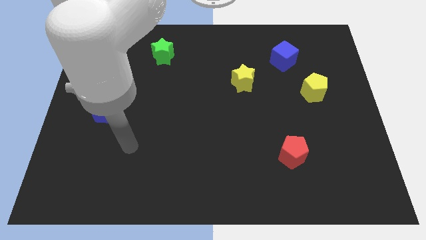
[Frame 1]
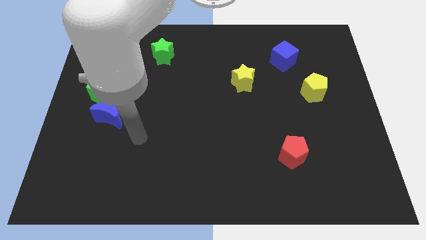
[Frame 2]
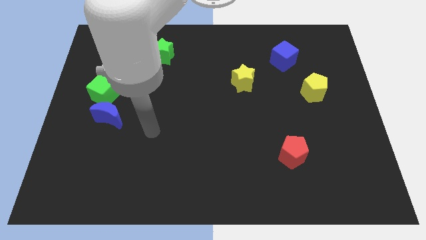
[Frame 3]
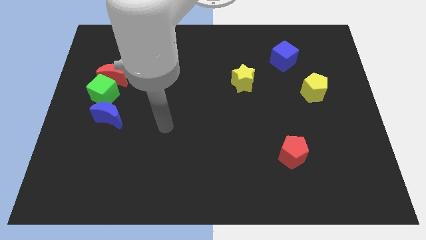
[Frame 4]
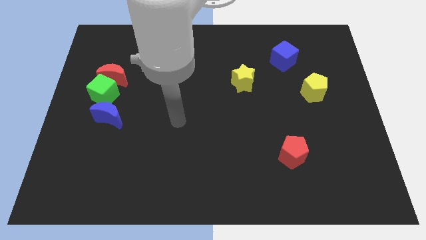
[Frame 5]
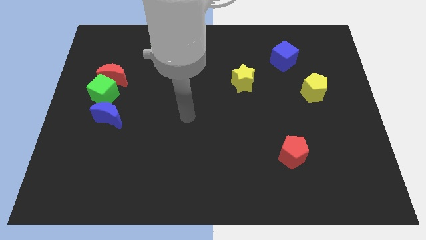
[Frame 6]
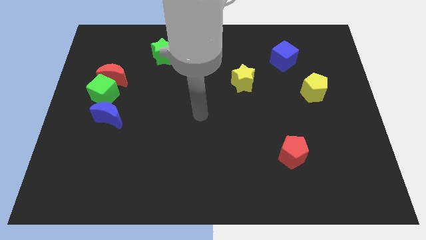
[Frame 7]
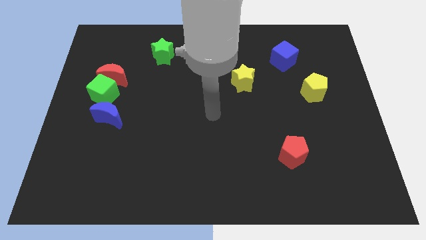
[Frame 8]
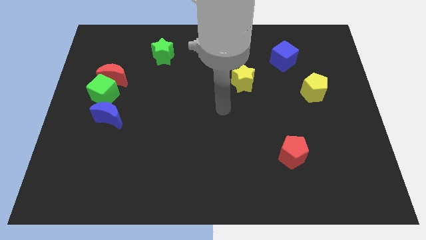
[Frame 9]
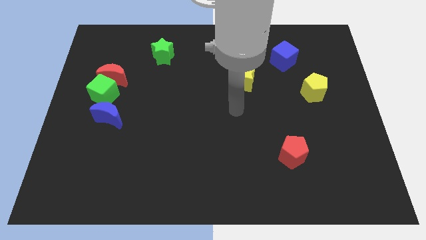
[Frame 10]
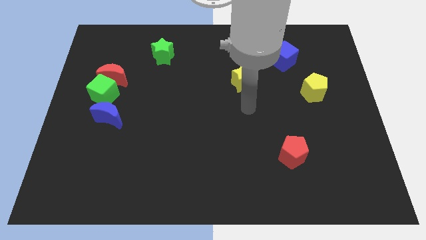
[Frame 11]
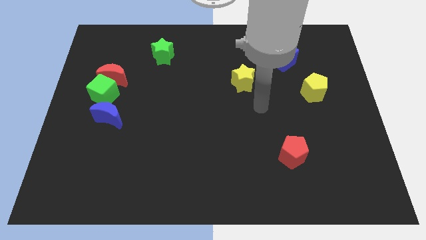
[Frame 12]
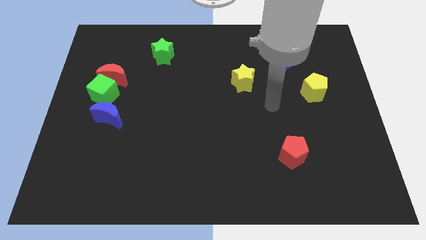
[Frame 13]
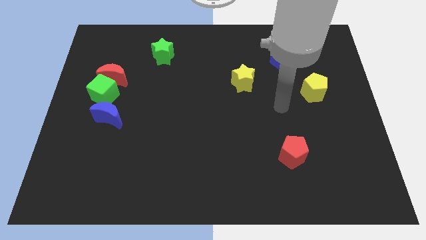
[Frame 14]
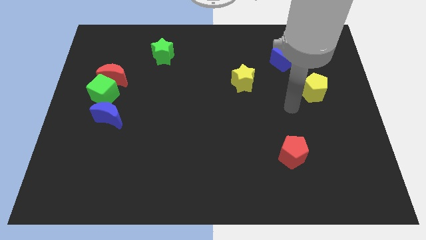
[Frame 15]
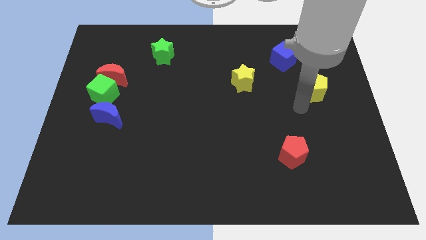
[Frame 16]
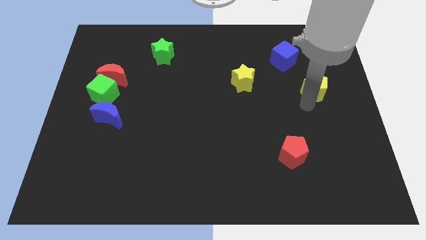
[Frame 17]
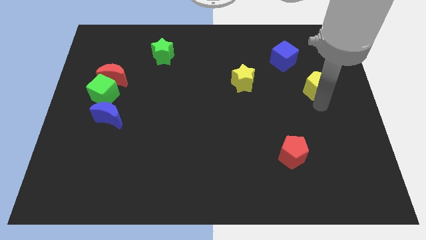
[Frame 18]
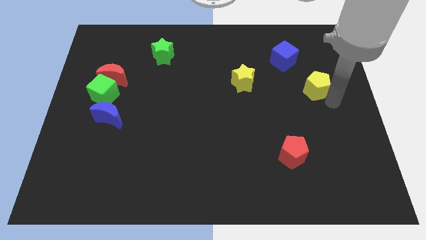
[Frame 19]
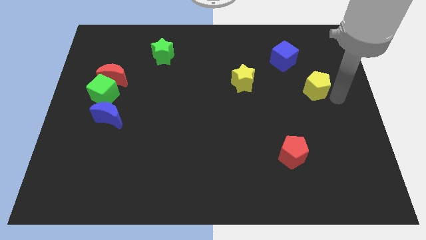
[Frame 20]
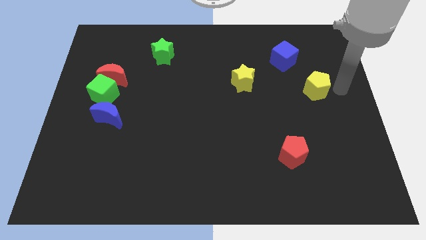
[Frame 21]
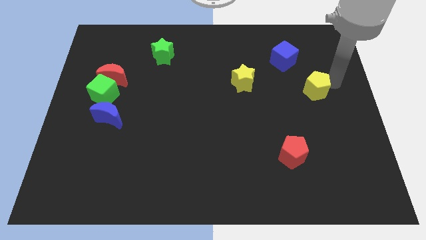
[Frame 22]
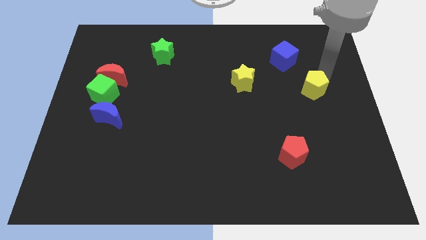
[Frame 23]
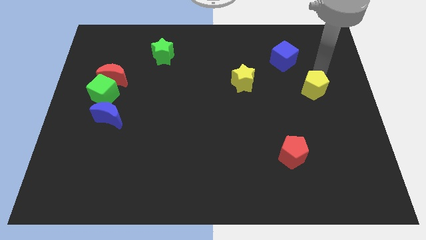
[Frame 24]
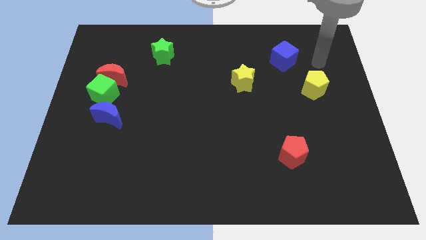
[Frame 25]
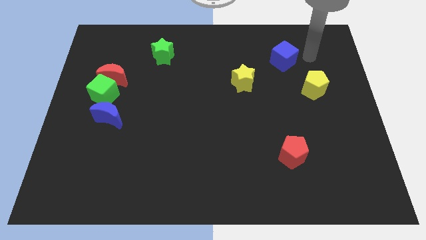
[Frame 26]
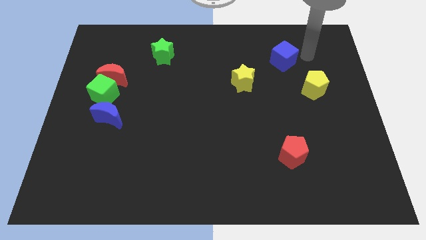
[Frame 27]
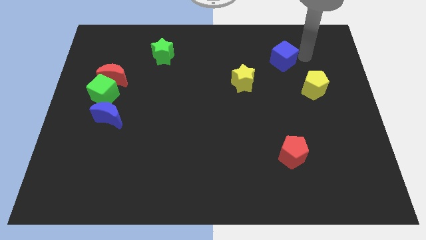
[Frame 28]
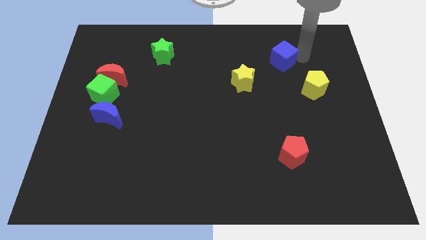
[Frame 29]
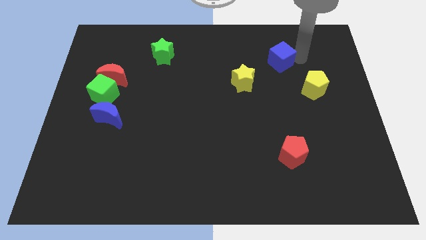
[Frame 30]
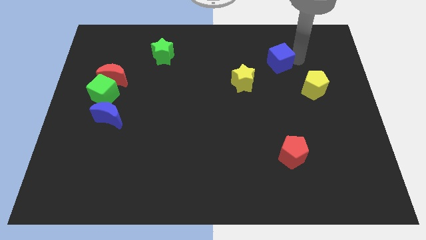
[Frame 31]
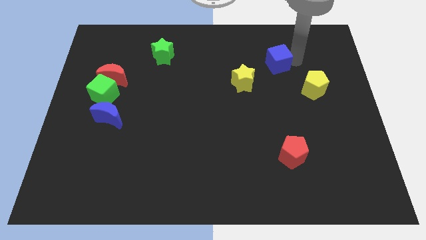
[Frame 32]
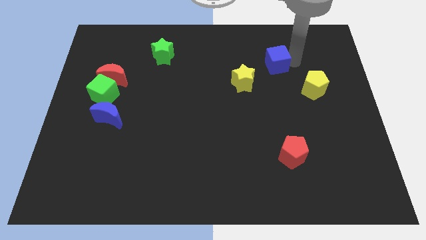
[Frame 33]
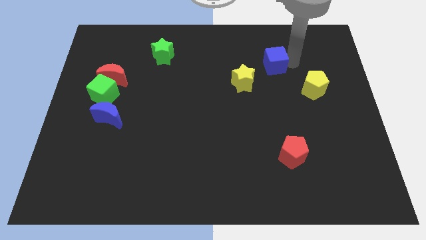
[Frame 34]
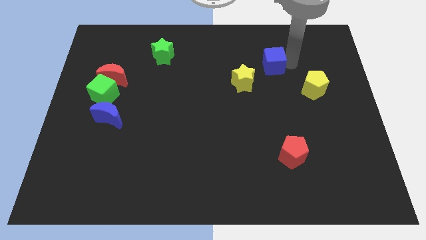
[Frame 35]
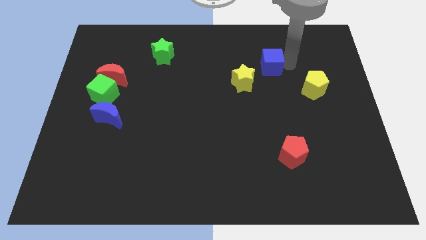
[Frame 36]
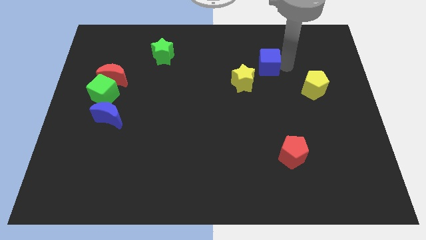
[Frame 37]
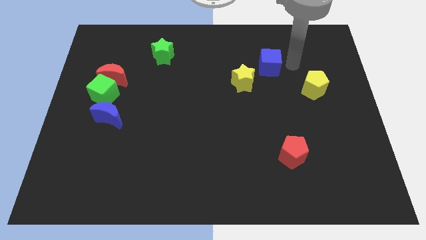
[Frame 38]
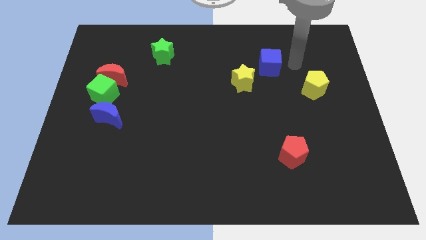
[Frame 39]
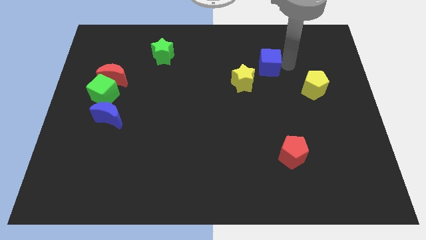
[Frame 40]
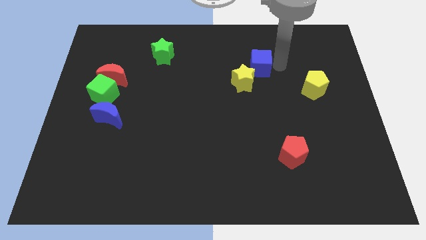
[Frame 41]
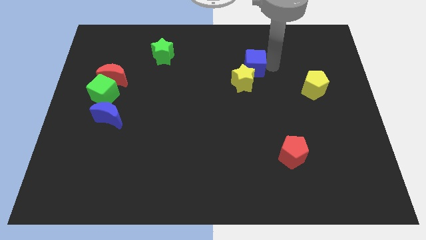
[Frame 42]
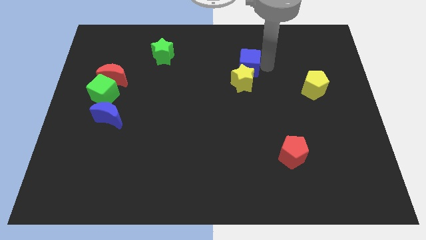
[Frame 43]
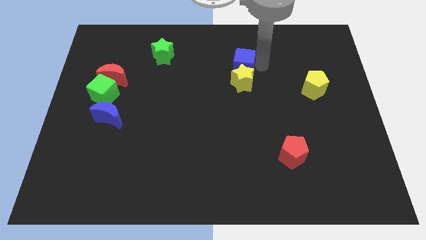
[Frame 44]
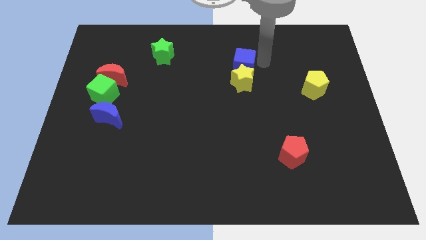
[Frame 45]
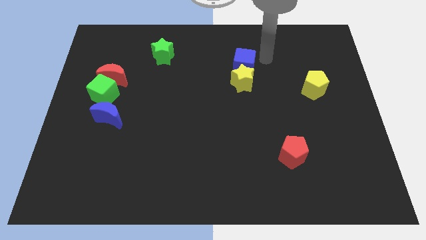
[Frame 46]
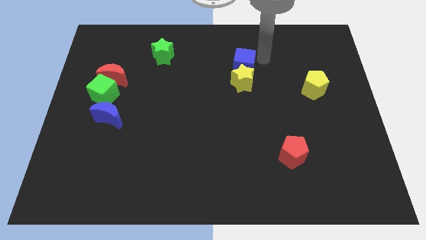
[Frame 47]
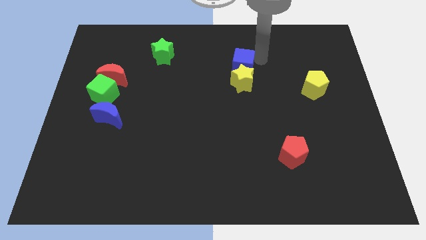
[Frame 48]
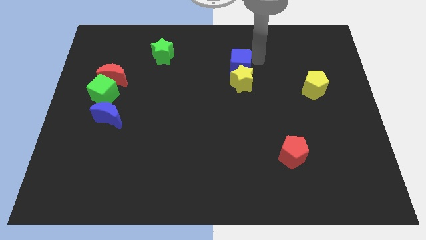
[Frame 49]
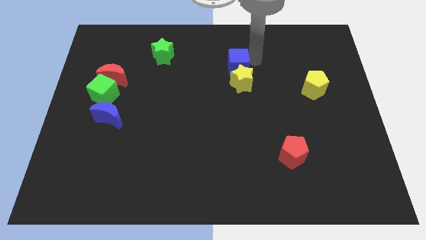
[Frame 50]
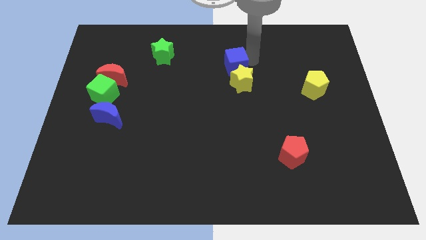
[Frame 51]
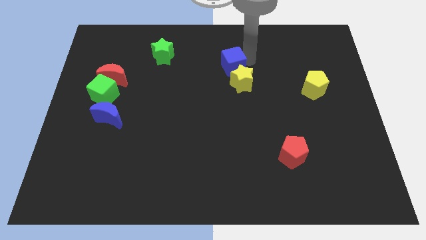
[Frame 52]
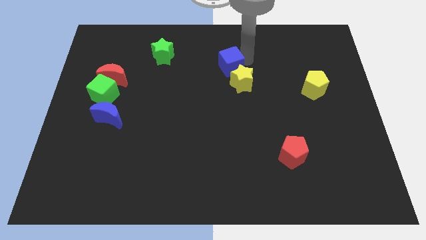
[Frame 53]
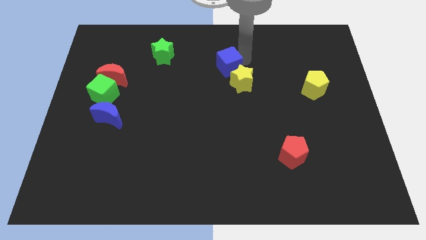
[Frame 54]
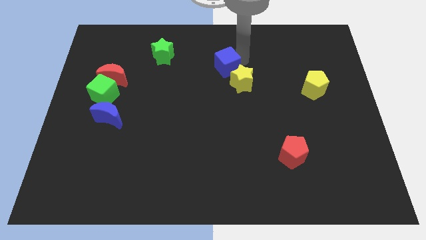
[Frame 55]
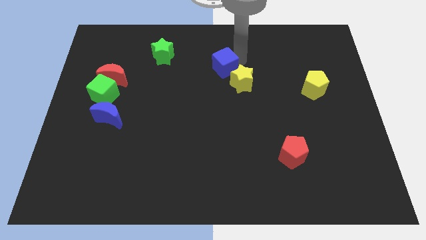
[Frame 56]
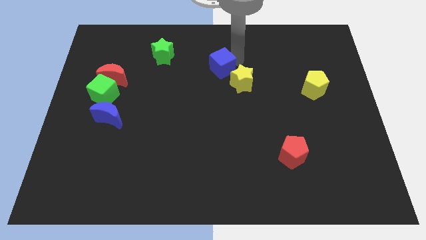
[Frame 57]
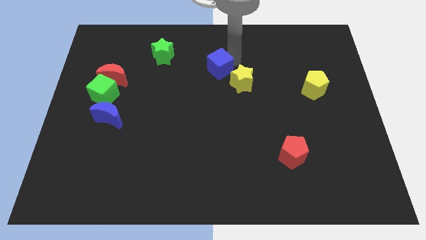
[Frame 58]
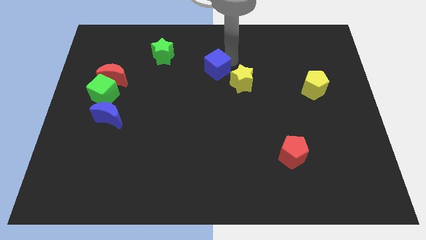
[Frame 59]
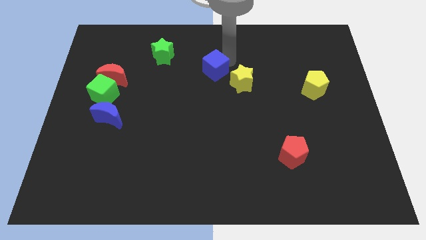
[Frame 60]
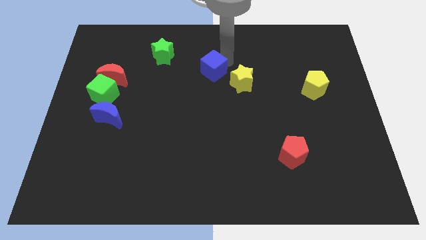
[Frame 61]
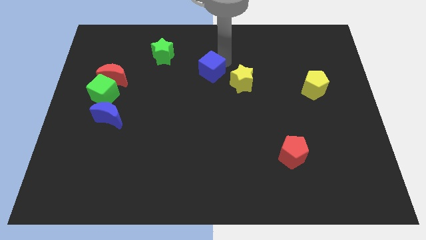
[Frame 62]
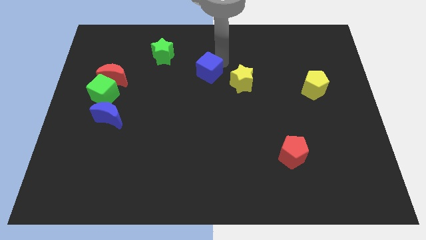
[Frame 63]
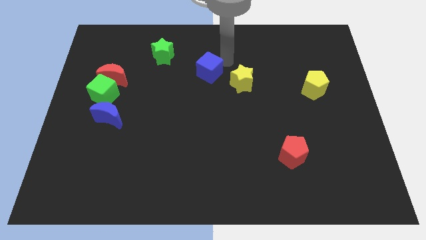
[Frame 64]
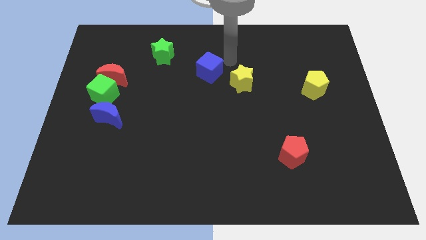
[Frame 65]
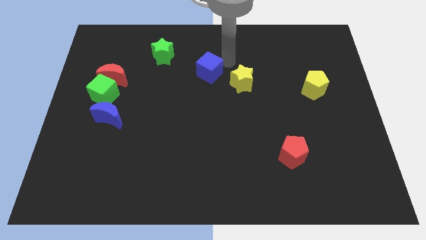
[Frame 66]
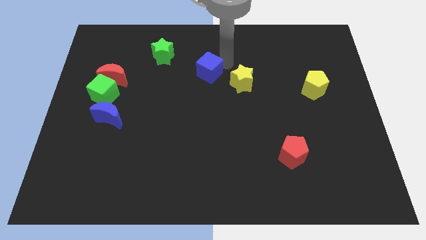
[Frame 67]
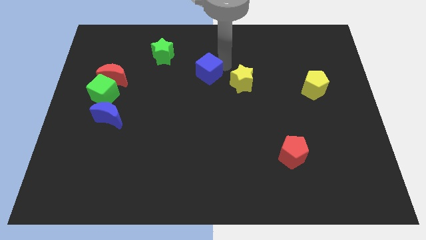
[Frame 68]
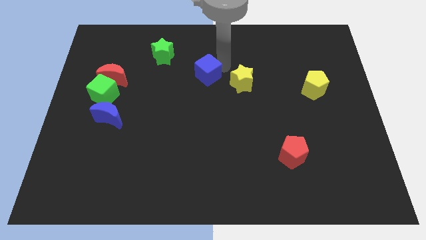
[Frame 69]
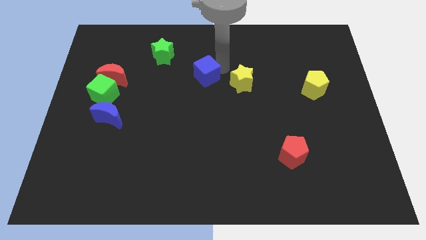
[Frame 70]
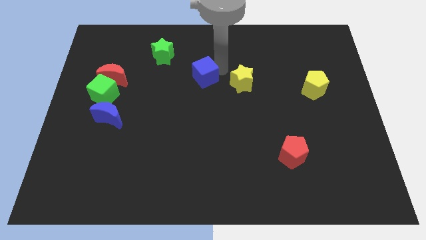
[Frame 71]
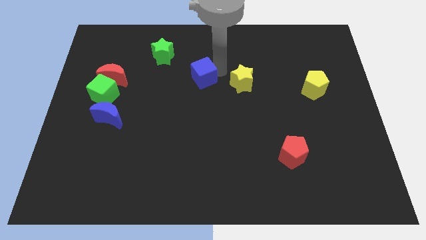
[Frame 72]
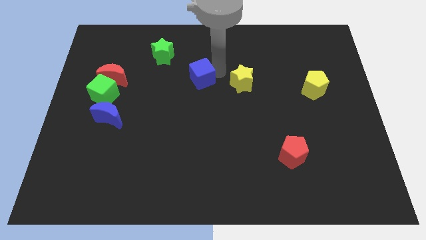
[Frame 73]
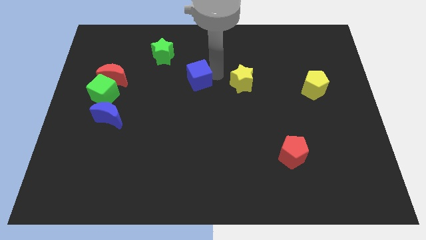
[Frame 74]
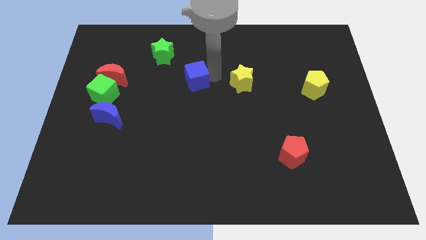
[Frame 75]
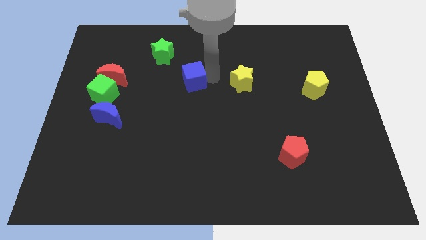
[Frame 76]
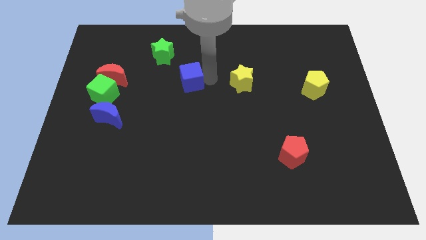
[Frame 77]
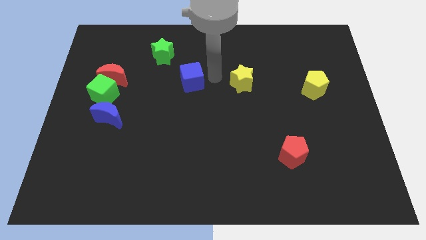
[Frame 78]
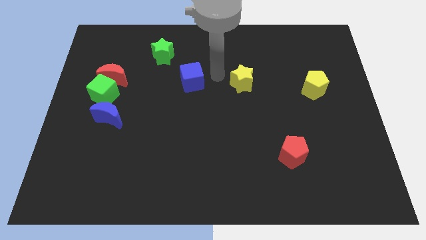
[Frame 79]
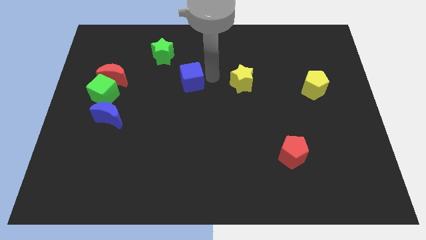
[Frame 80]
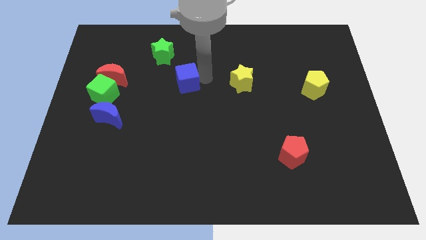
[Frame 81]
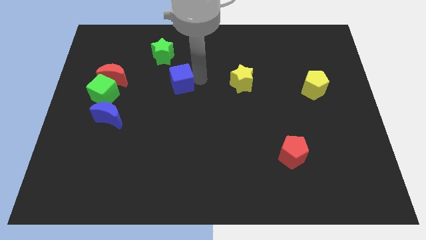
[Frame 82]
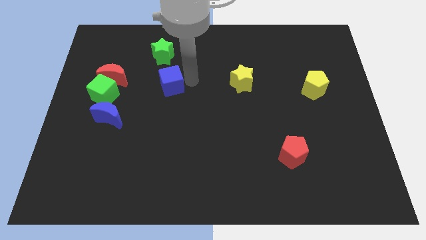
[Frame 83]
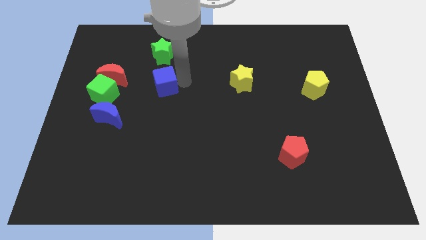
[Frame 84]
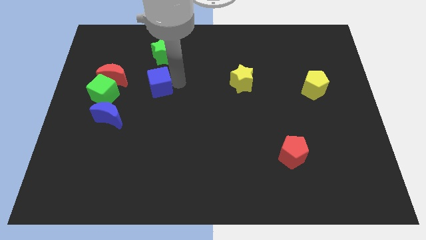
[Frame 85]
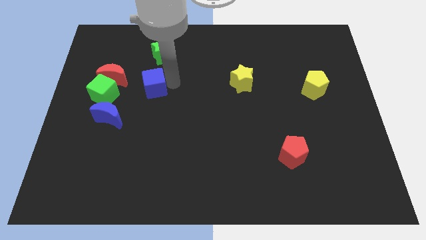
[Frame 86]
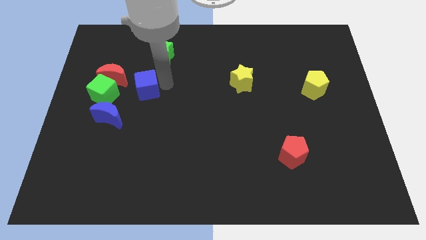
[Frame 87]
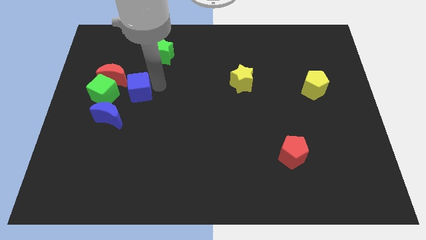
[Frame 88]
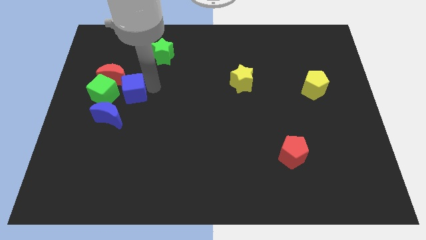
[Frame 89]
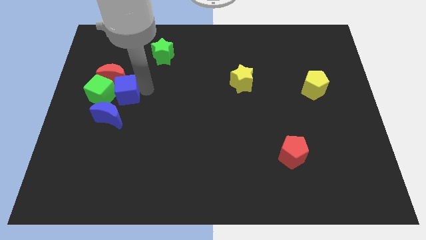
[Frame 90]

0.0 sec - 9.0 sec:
slide the blue cube to the green cube
